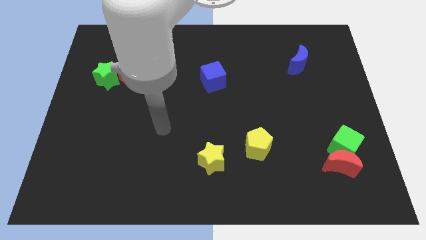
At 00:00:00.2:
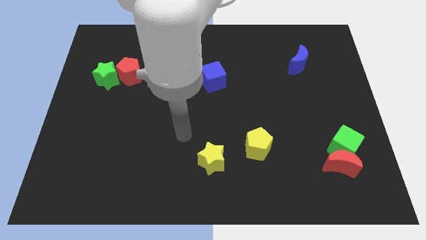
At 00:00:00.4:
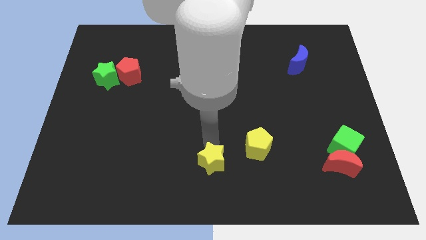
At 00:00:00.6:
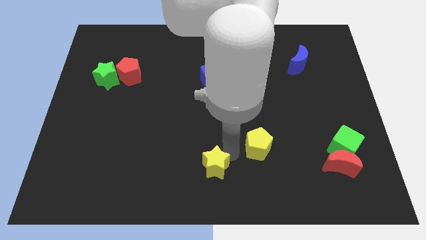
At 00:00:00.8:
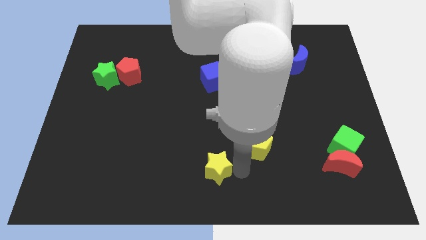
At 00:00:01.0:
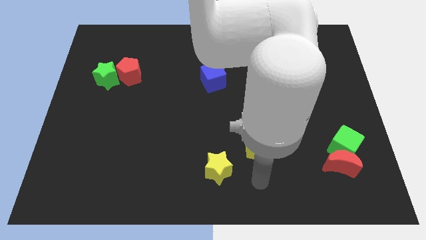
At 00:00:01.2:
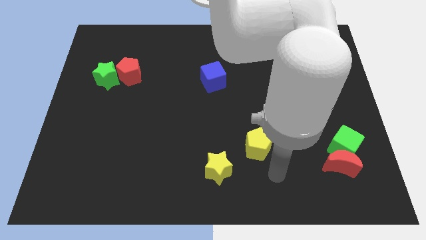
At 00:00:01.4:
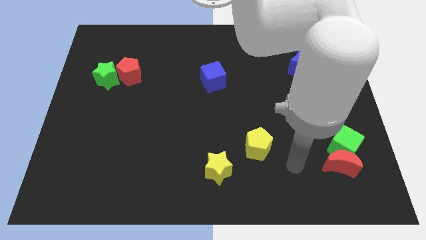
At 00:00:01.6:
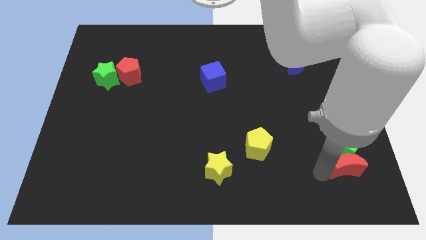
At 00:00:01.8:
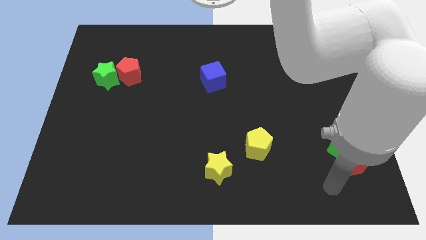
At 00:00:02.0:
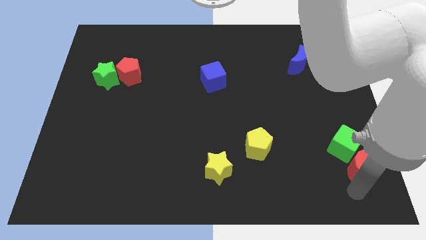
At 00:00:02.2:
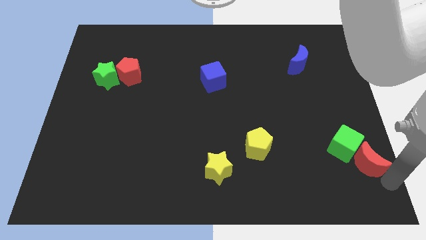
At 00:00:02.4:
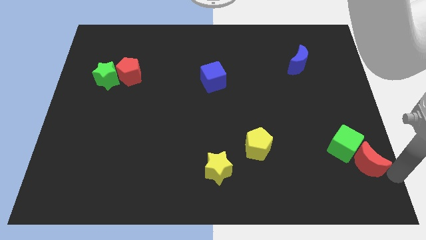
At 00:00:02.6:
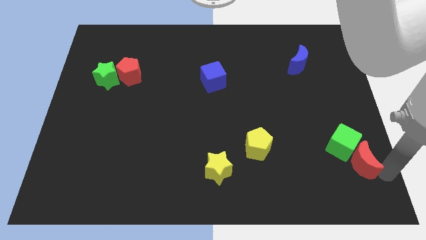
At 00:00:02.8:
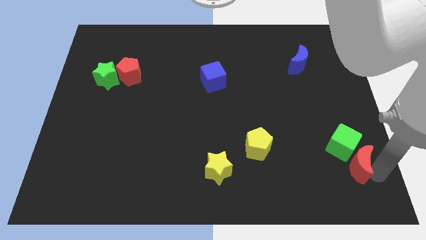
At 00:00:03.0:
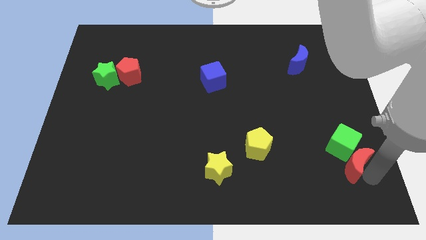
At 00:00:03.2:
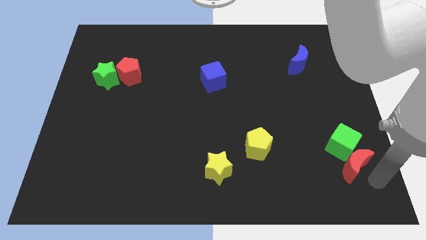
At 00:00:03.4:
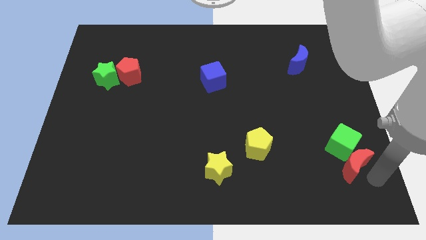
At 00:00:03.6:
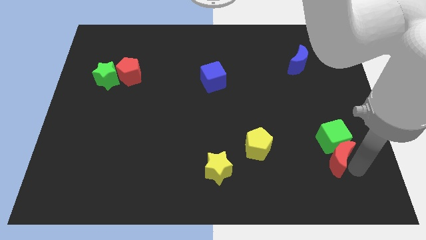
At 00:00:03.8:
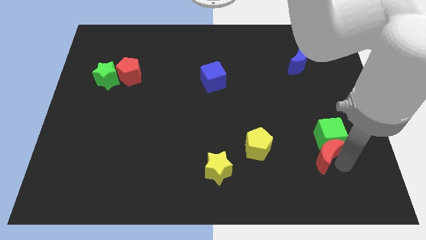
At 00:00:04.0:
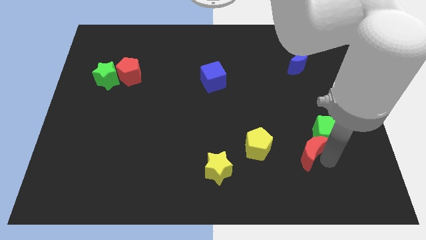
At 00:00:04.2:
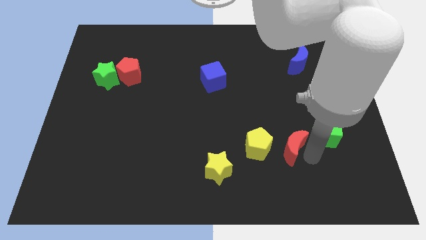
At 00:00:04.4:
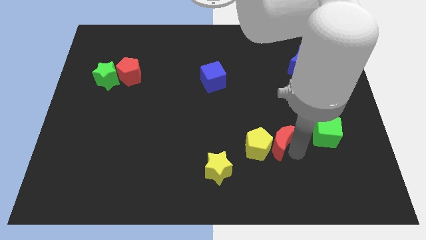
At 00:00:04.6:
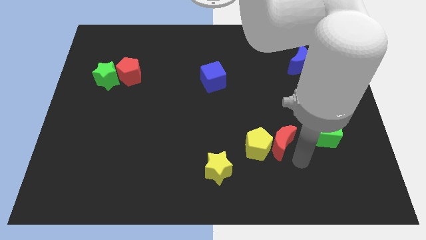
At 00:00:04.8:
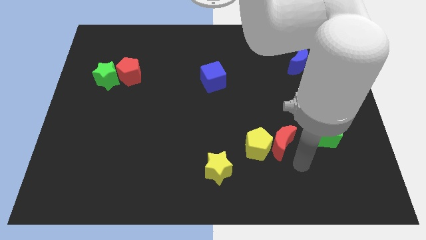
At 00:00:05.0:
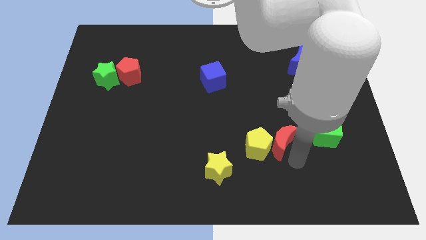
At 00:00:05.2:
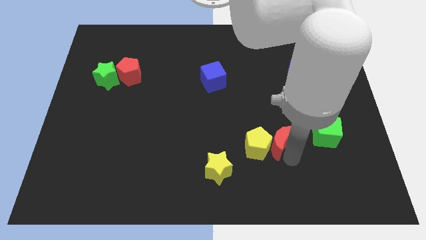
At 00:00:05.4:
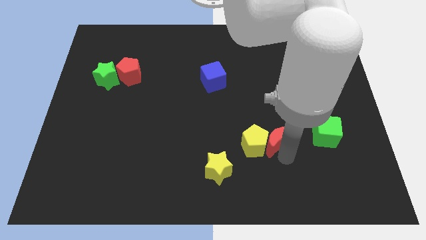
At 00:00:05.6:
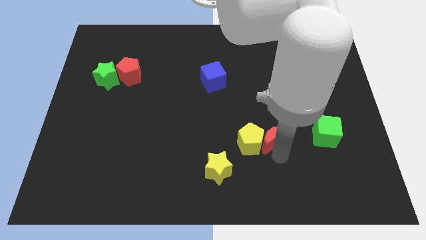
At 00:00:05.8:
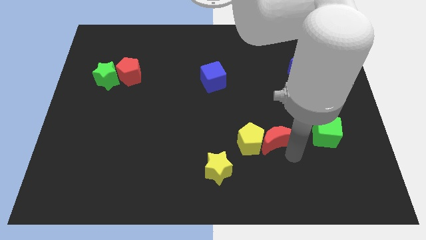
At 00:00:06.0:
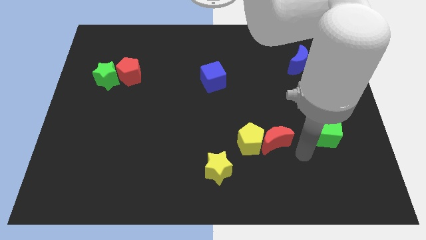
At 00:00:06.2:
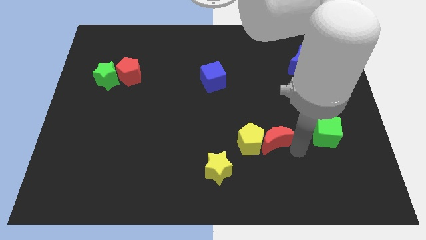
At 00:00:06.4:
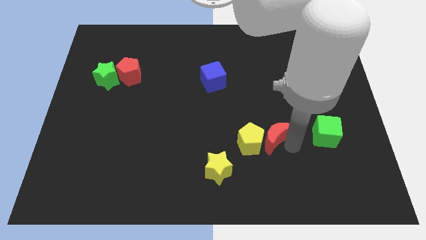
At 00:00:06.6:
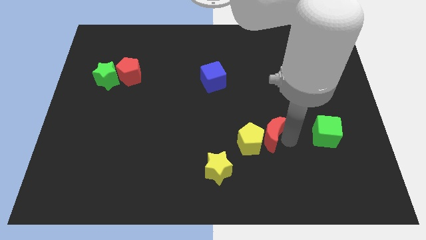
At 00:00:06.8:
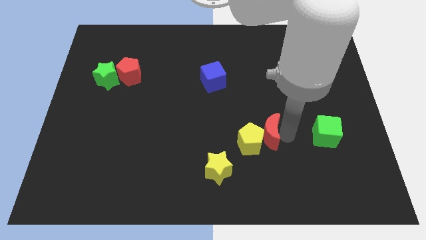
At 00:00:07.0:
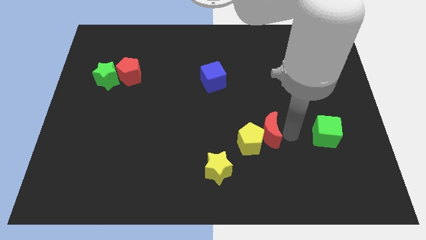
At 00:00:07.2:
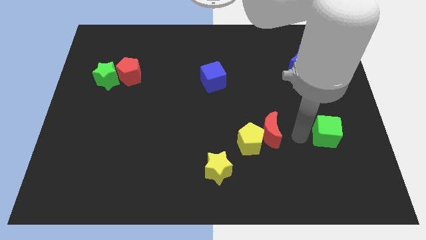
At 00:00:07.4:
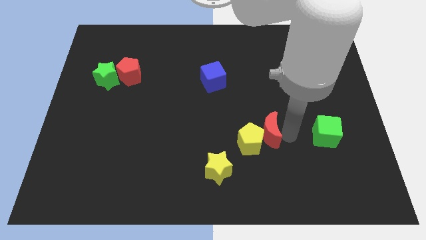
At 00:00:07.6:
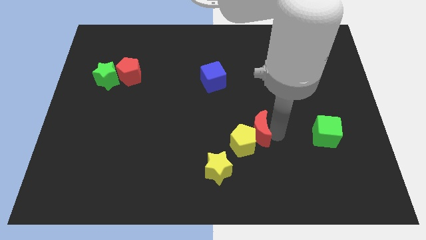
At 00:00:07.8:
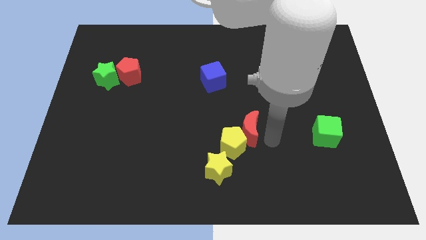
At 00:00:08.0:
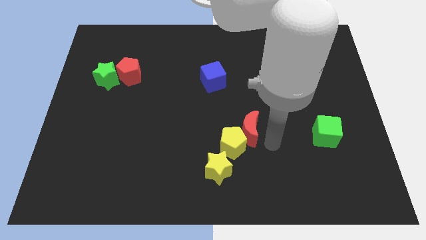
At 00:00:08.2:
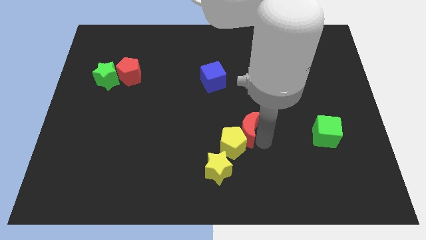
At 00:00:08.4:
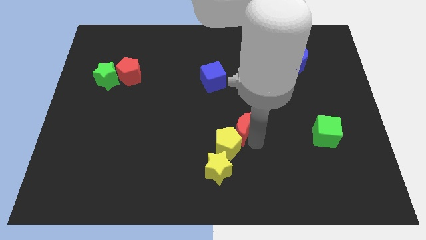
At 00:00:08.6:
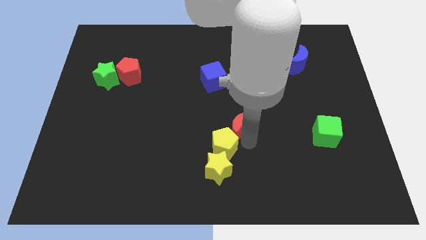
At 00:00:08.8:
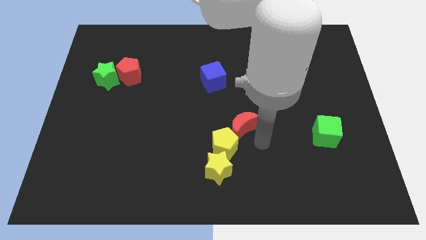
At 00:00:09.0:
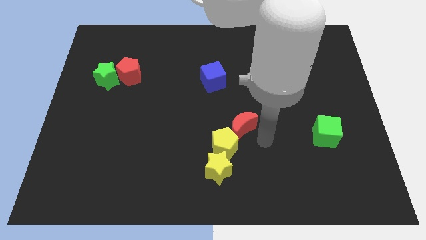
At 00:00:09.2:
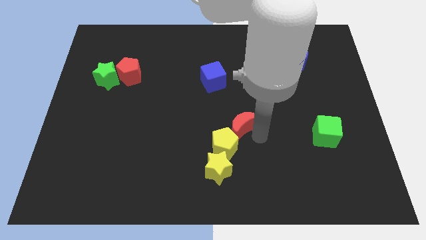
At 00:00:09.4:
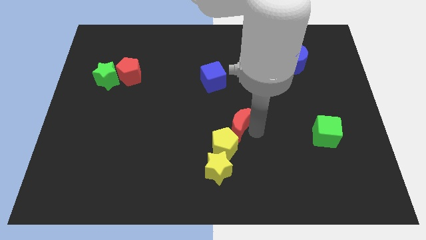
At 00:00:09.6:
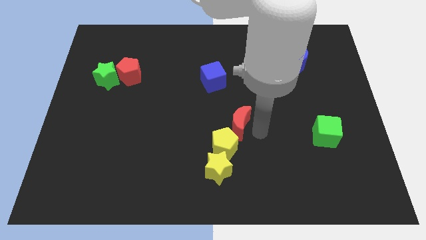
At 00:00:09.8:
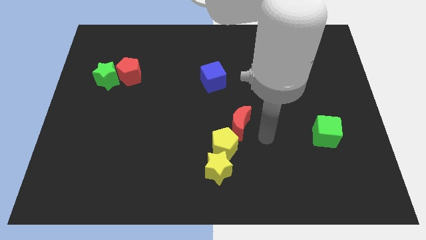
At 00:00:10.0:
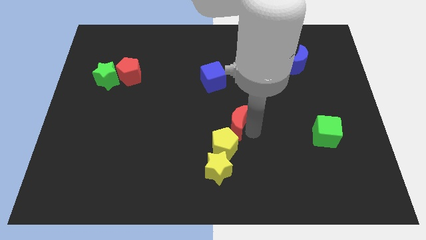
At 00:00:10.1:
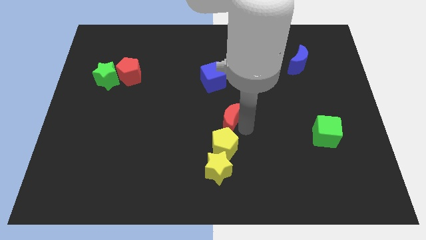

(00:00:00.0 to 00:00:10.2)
push the red moon below the blue cube

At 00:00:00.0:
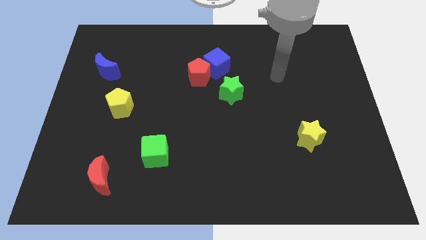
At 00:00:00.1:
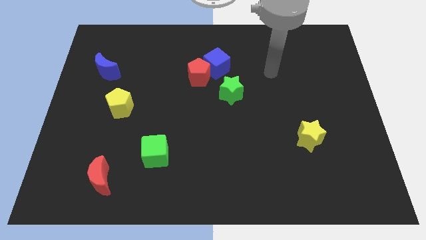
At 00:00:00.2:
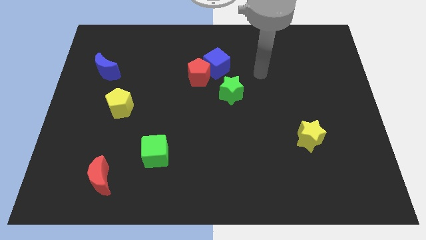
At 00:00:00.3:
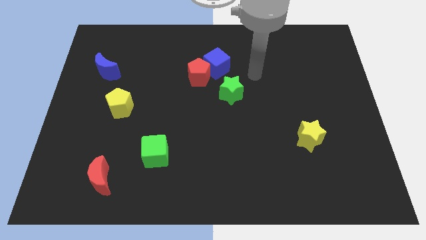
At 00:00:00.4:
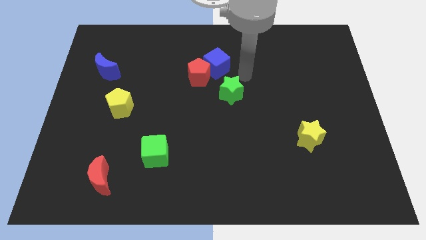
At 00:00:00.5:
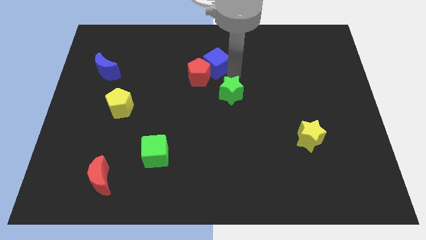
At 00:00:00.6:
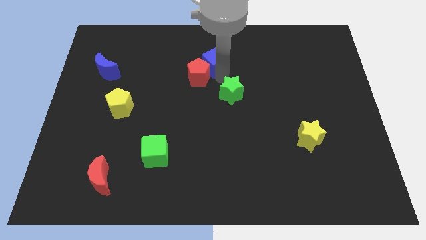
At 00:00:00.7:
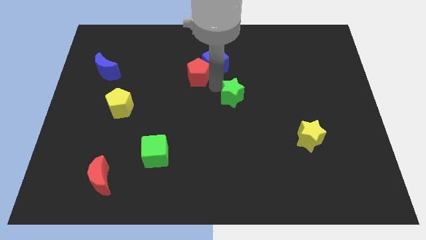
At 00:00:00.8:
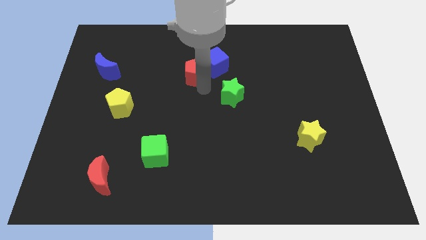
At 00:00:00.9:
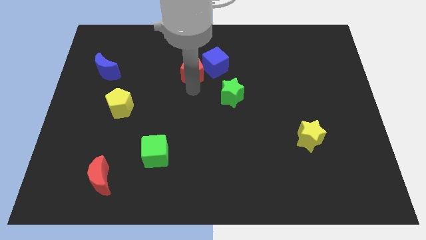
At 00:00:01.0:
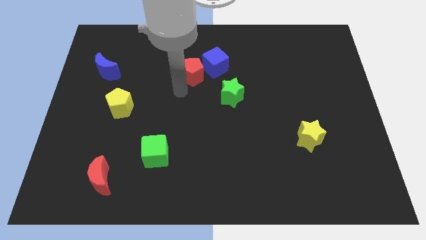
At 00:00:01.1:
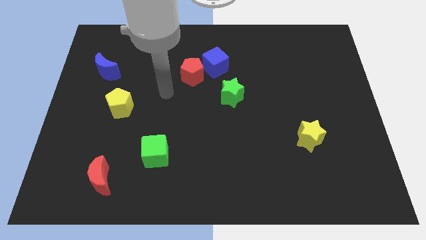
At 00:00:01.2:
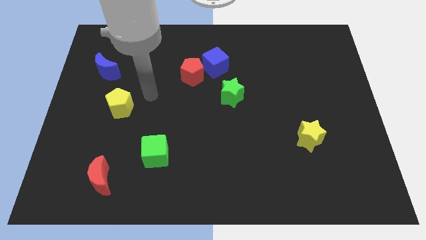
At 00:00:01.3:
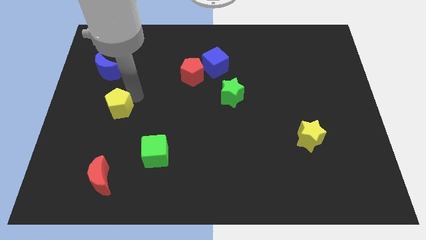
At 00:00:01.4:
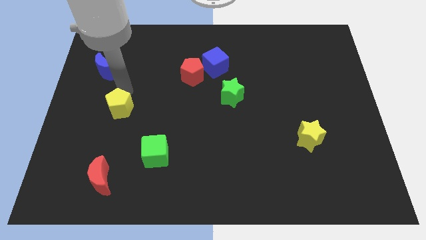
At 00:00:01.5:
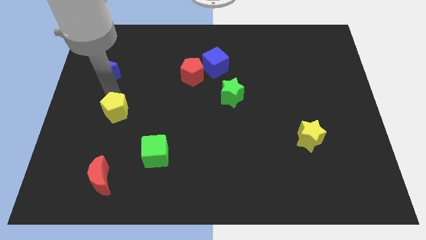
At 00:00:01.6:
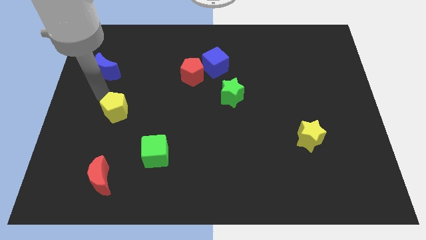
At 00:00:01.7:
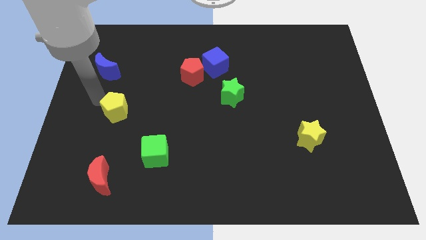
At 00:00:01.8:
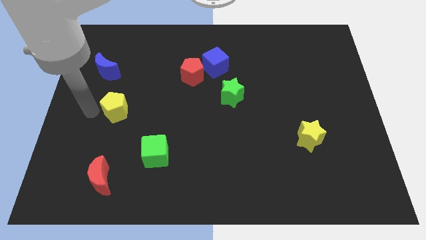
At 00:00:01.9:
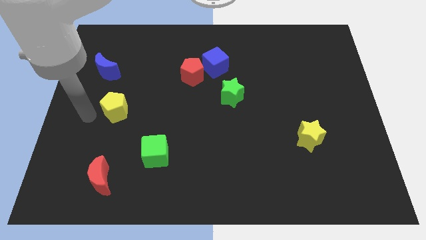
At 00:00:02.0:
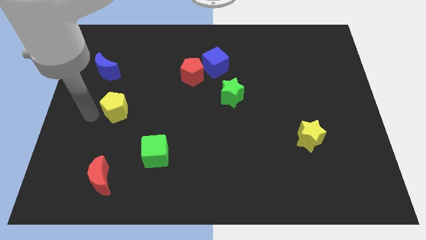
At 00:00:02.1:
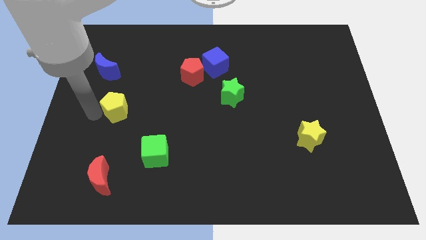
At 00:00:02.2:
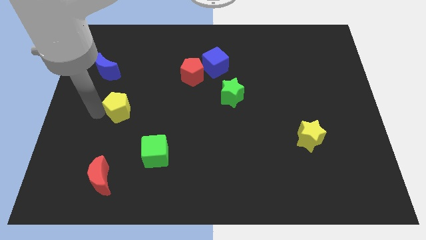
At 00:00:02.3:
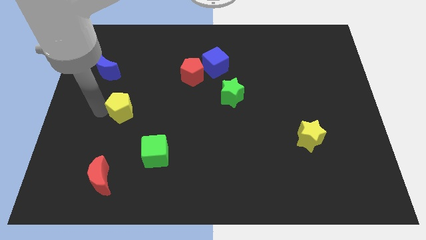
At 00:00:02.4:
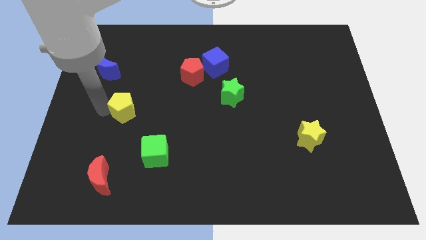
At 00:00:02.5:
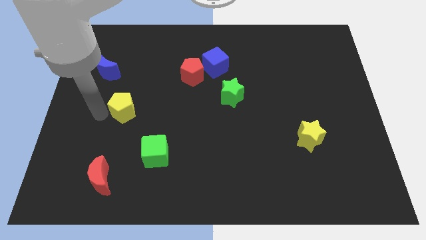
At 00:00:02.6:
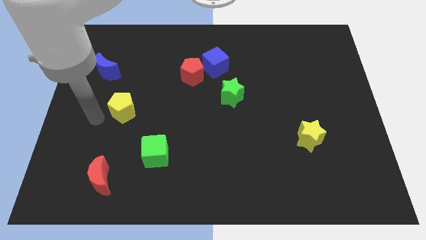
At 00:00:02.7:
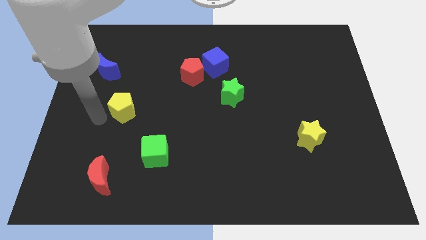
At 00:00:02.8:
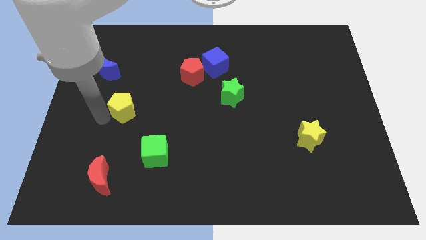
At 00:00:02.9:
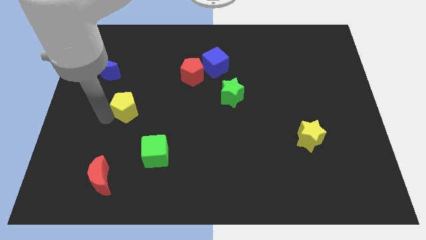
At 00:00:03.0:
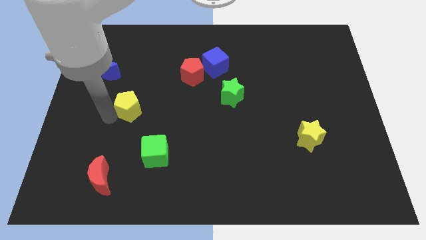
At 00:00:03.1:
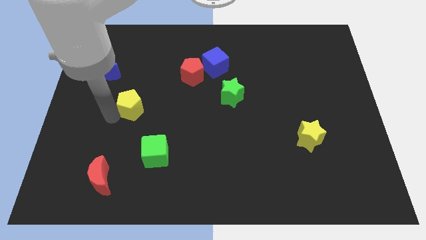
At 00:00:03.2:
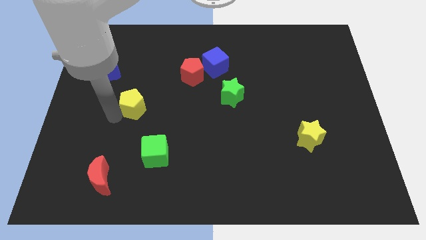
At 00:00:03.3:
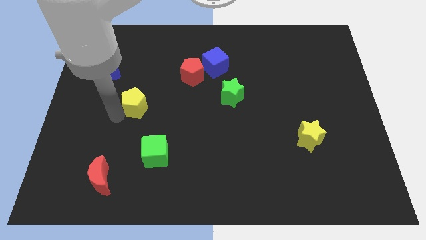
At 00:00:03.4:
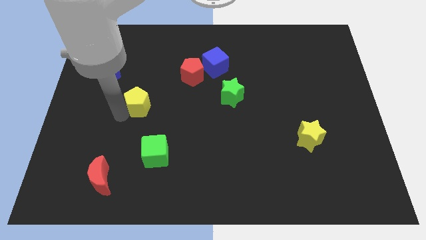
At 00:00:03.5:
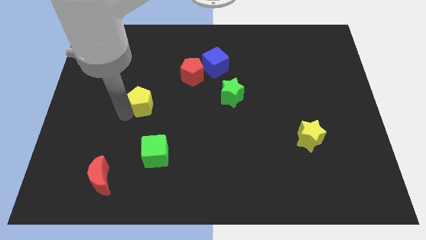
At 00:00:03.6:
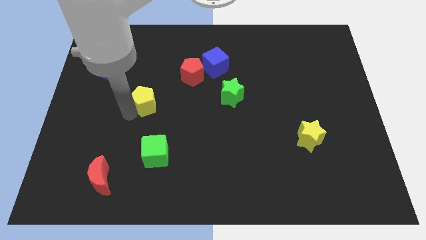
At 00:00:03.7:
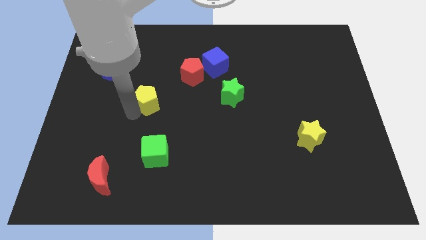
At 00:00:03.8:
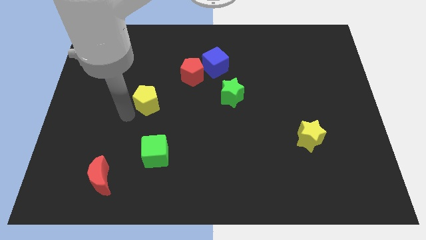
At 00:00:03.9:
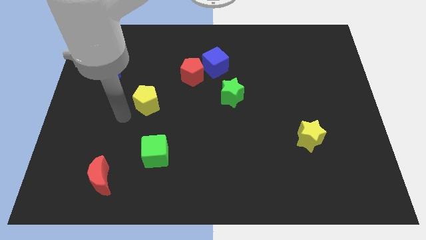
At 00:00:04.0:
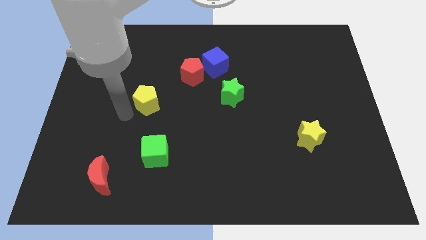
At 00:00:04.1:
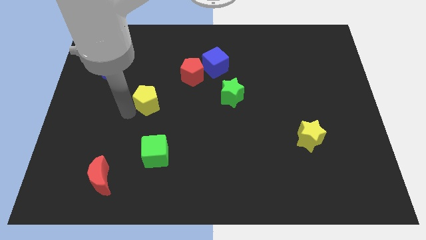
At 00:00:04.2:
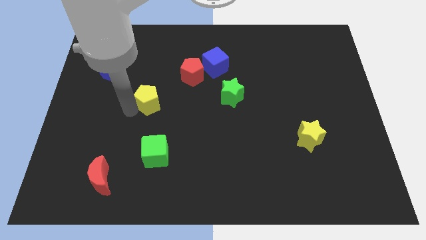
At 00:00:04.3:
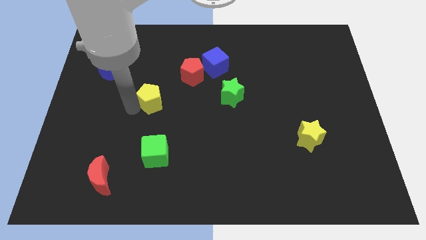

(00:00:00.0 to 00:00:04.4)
slide the yellow pentagon to the bottom left of the red pentagon
